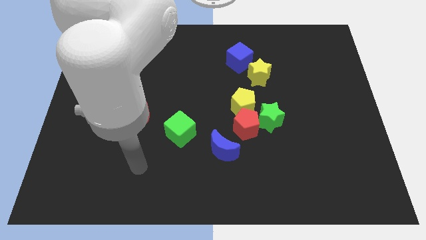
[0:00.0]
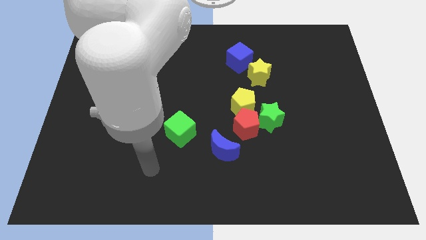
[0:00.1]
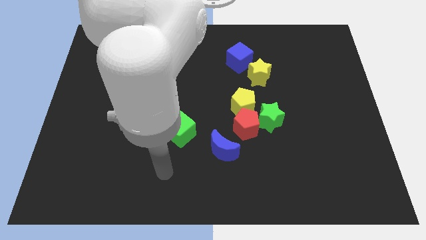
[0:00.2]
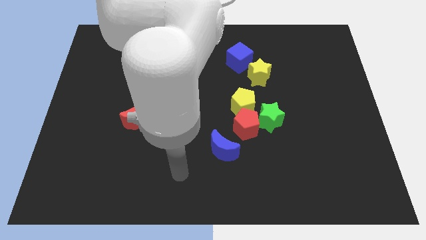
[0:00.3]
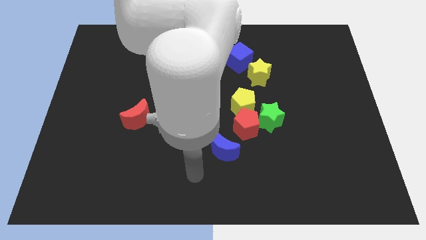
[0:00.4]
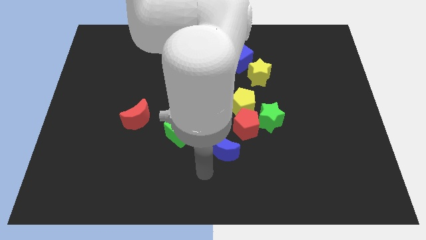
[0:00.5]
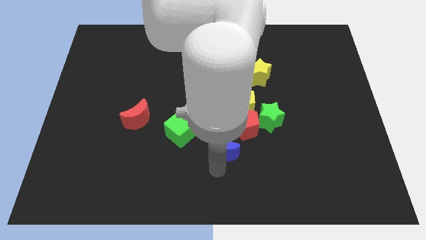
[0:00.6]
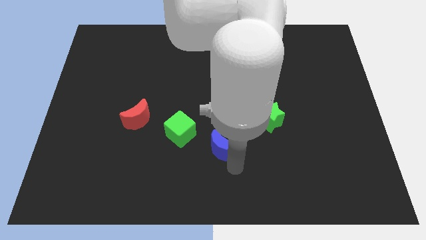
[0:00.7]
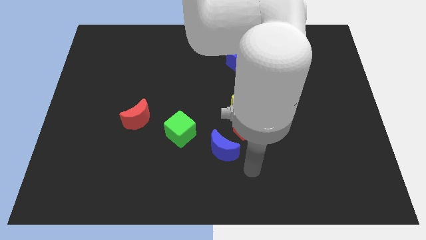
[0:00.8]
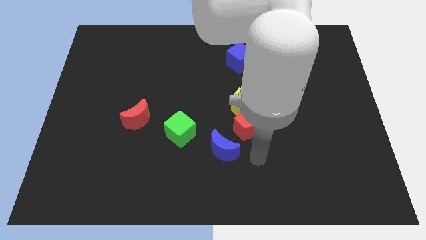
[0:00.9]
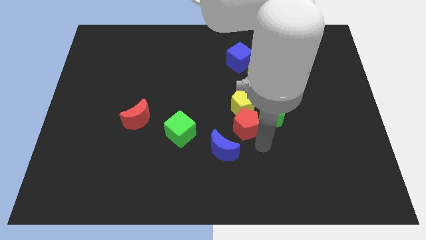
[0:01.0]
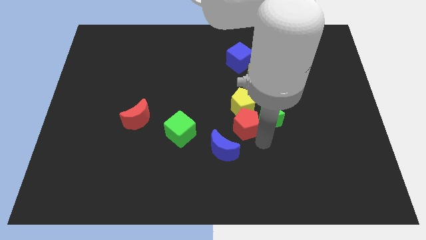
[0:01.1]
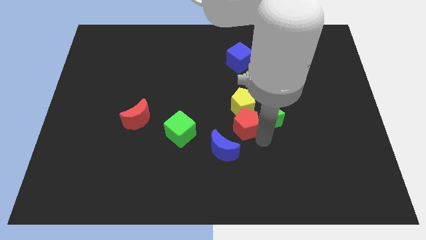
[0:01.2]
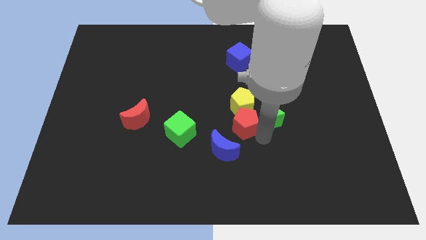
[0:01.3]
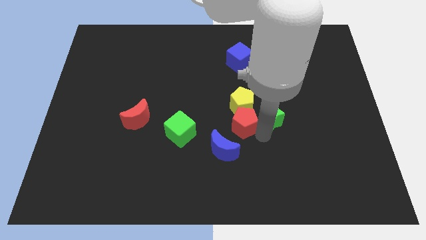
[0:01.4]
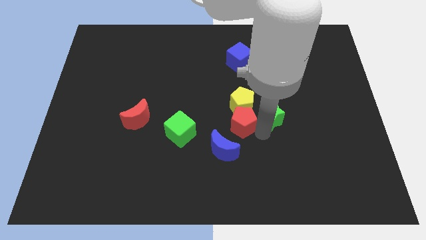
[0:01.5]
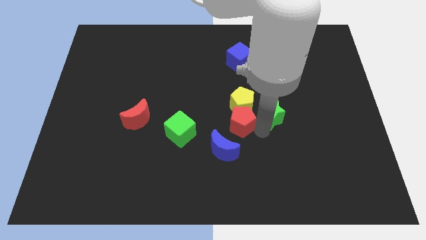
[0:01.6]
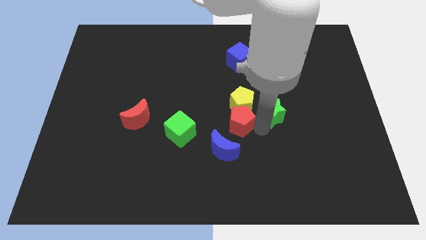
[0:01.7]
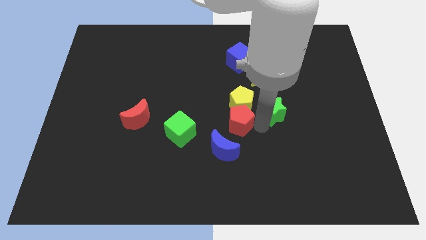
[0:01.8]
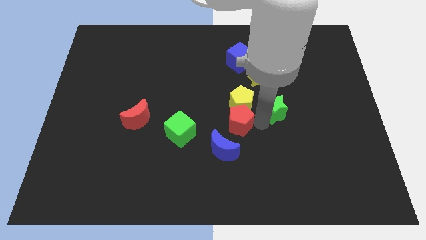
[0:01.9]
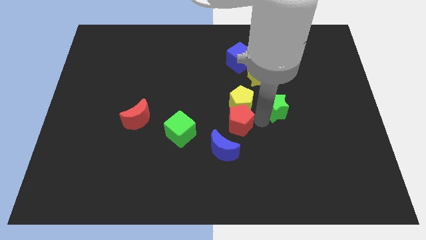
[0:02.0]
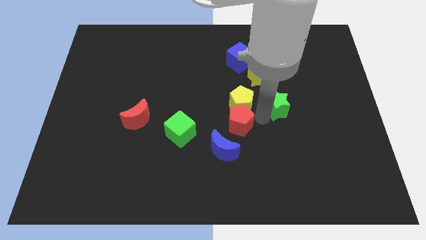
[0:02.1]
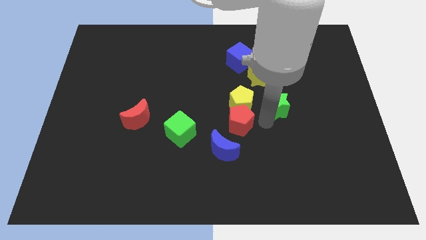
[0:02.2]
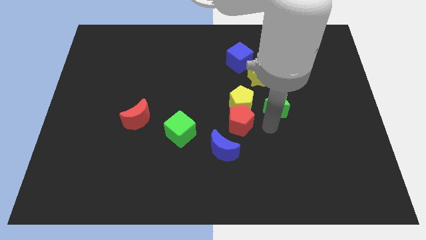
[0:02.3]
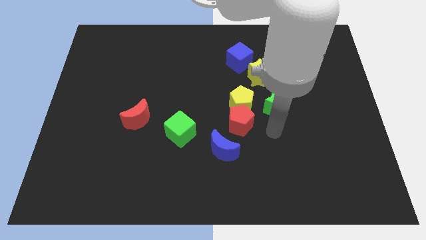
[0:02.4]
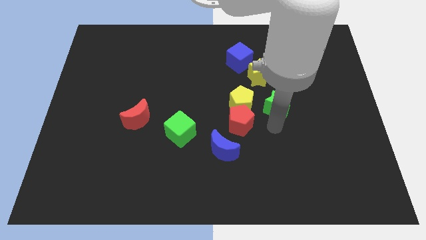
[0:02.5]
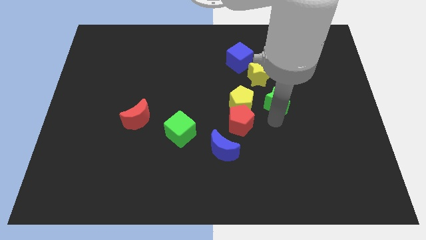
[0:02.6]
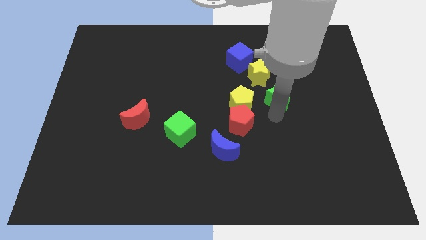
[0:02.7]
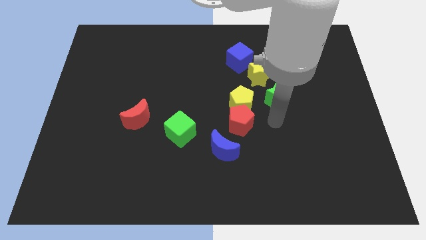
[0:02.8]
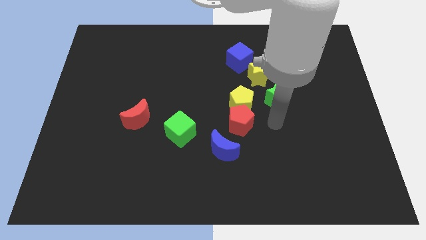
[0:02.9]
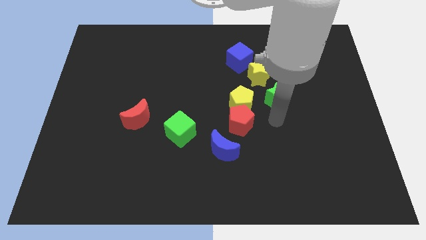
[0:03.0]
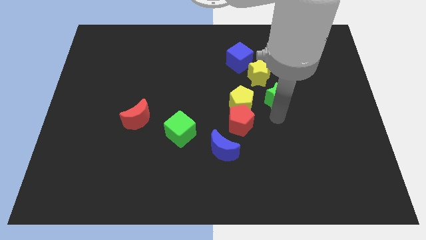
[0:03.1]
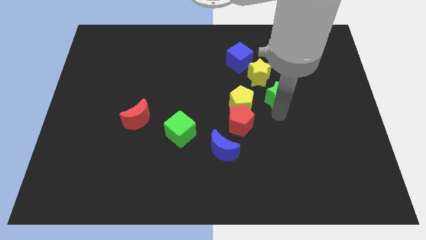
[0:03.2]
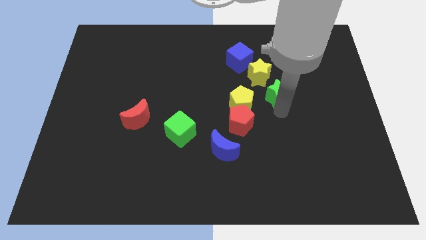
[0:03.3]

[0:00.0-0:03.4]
slide the green star a bit up

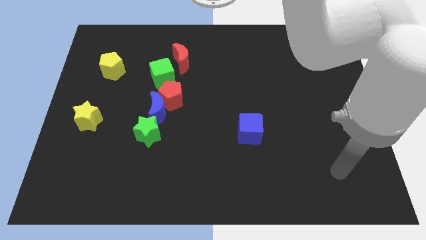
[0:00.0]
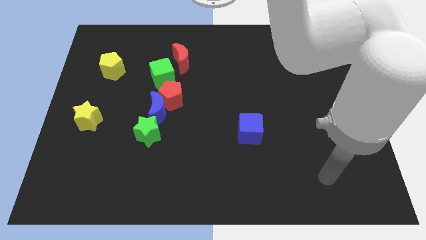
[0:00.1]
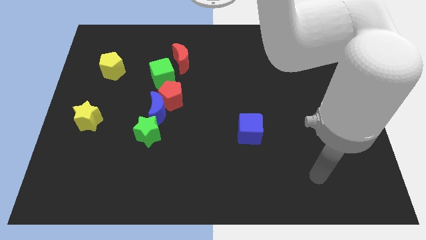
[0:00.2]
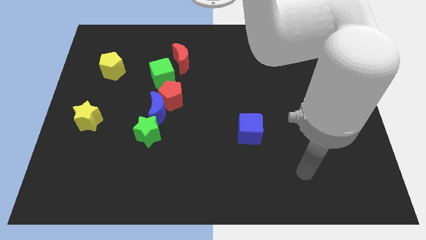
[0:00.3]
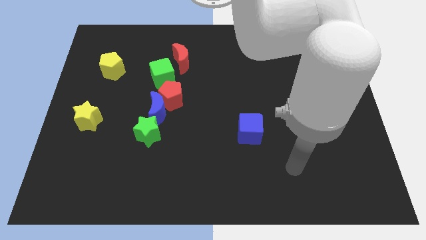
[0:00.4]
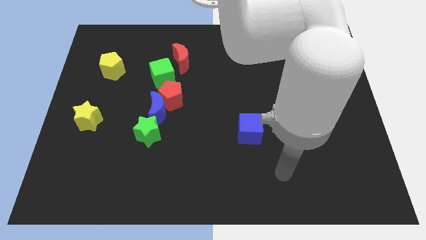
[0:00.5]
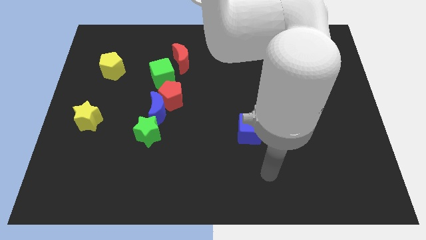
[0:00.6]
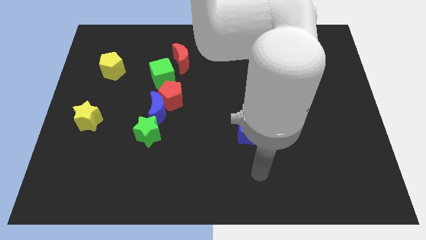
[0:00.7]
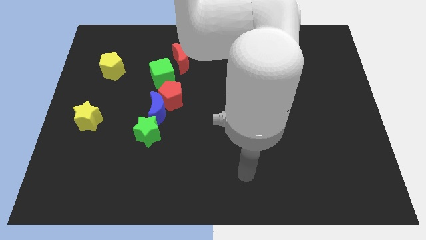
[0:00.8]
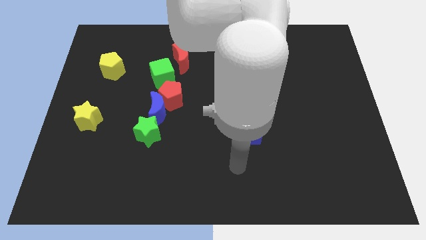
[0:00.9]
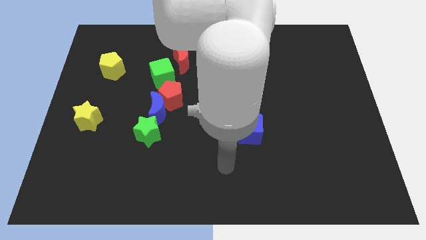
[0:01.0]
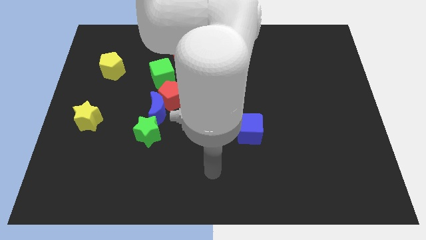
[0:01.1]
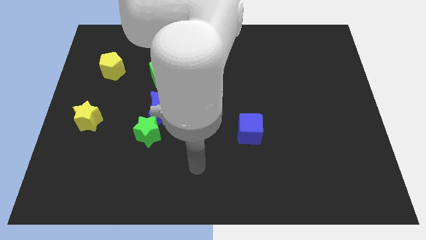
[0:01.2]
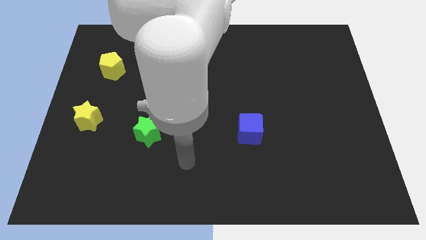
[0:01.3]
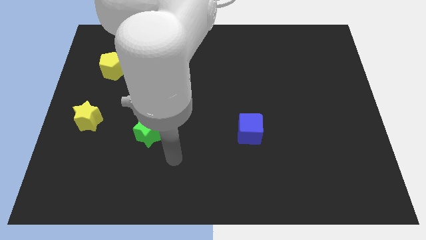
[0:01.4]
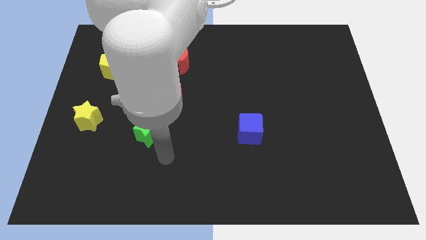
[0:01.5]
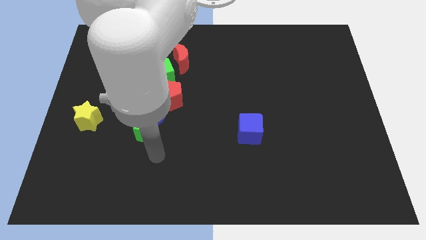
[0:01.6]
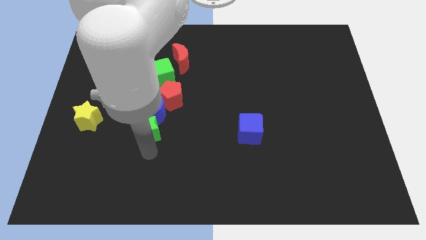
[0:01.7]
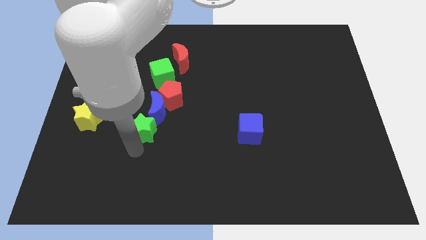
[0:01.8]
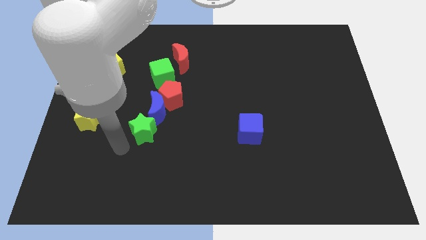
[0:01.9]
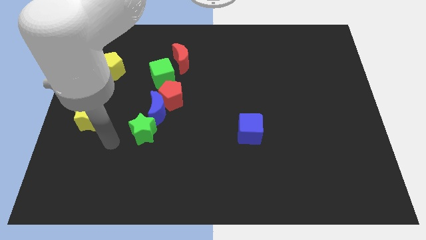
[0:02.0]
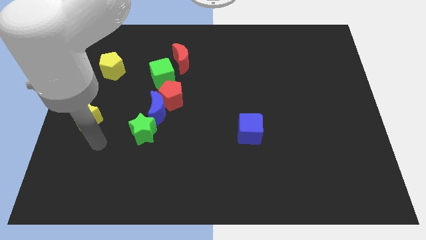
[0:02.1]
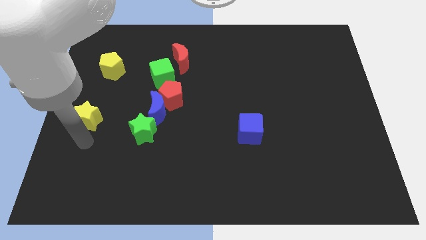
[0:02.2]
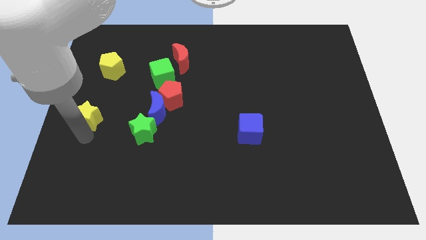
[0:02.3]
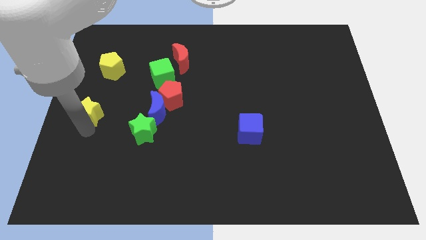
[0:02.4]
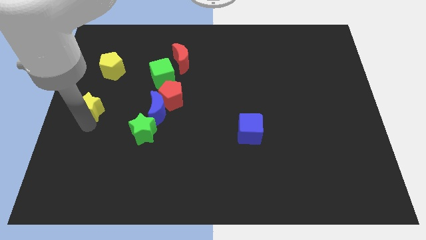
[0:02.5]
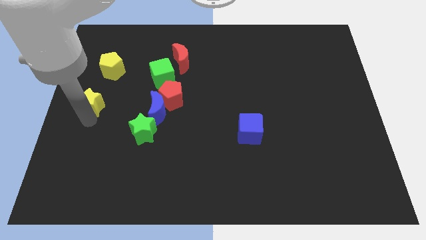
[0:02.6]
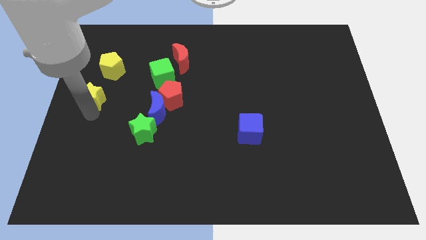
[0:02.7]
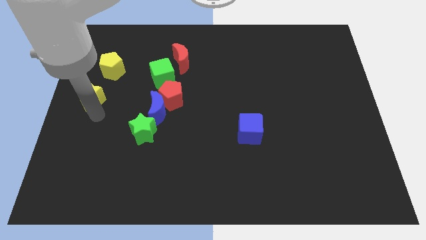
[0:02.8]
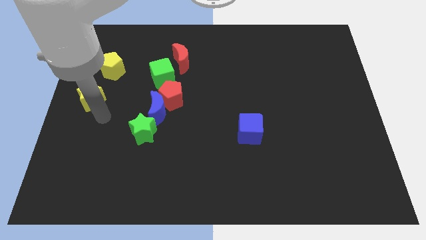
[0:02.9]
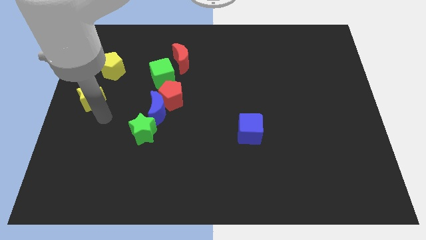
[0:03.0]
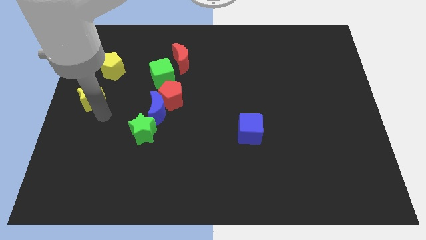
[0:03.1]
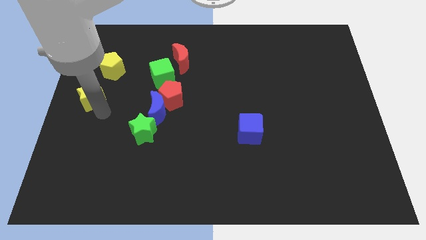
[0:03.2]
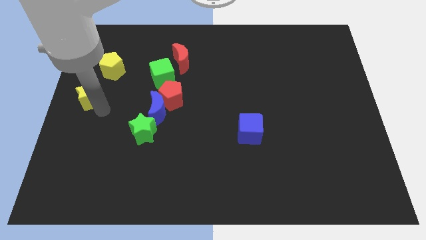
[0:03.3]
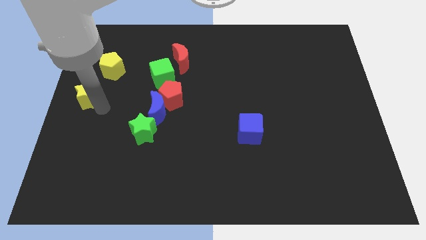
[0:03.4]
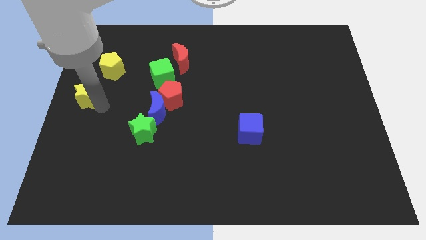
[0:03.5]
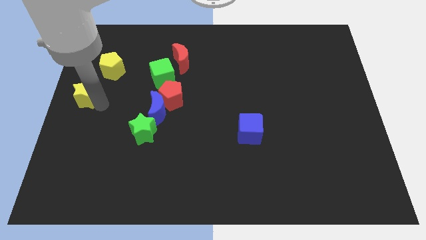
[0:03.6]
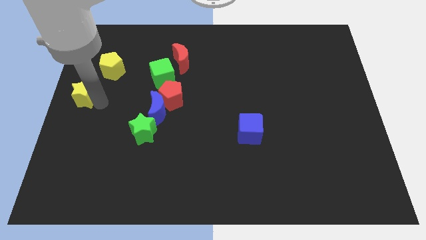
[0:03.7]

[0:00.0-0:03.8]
slightly move the yellow star upwards

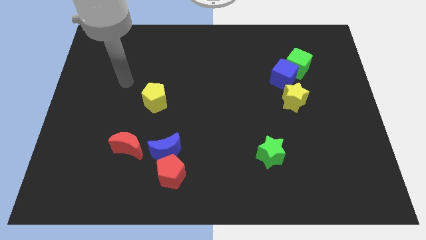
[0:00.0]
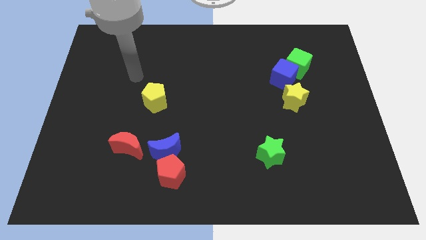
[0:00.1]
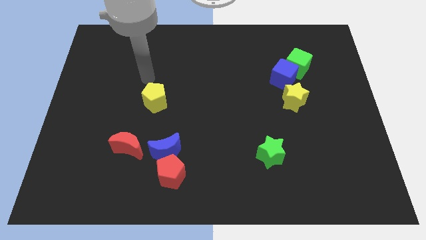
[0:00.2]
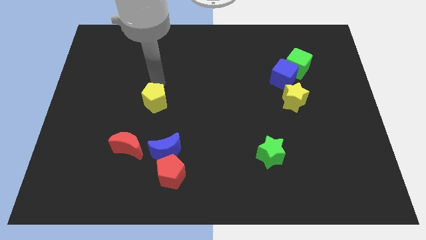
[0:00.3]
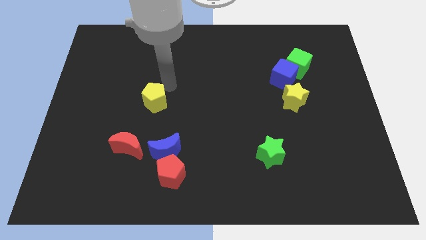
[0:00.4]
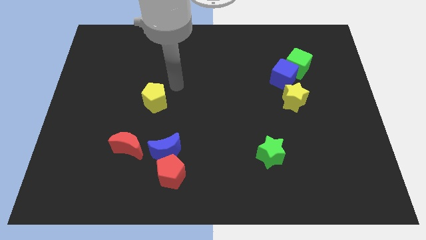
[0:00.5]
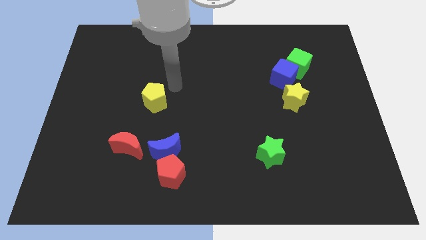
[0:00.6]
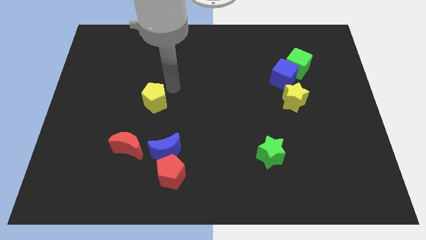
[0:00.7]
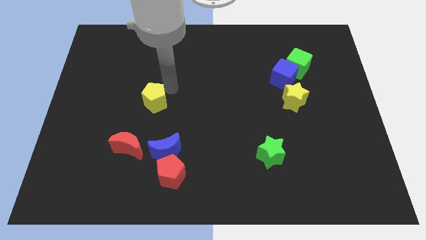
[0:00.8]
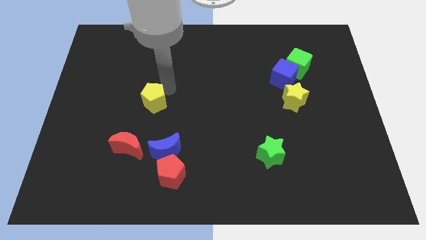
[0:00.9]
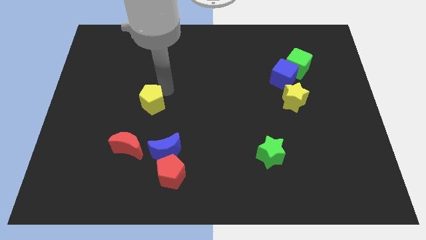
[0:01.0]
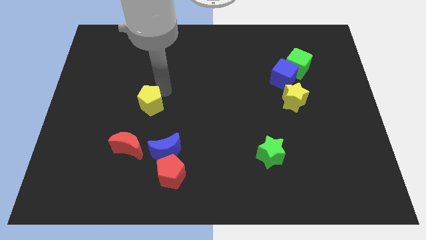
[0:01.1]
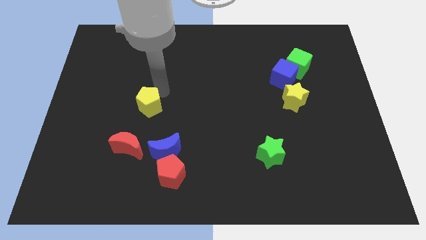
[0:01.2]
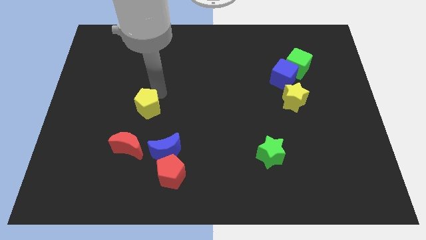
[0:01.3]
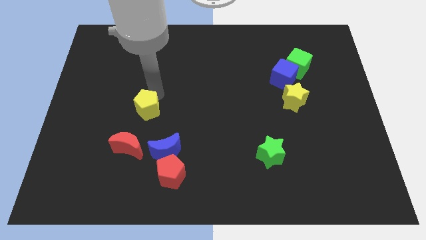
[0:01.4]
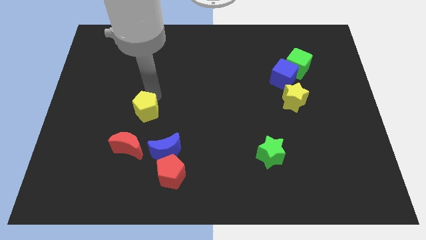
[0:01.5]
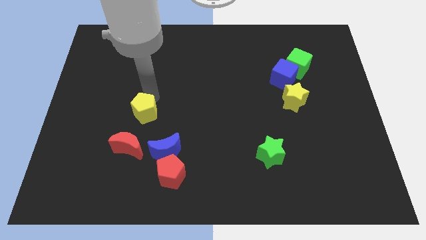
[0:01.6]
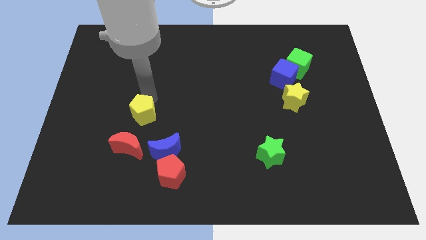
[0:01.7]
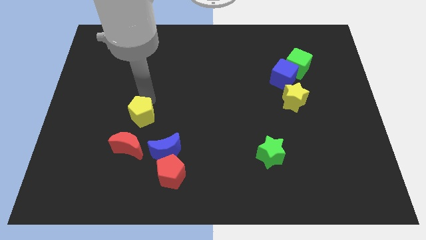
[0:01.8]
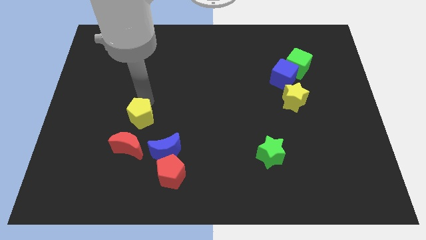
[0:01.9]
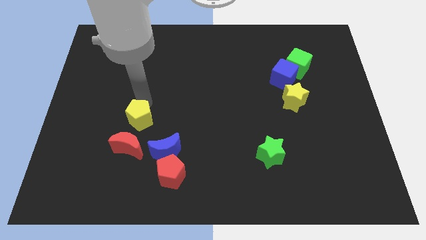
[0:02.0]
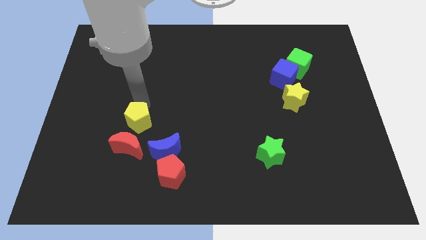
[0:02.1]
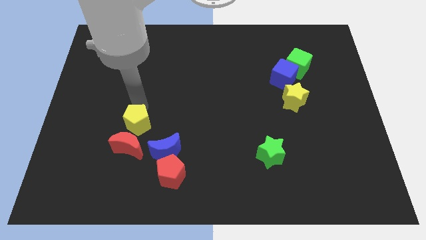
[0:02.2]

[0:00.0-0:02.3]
slightly push the yellow pentagon downwards and to the left
